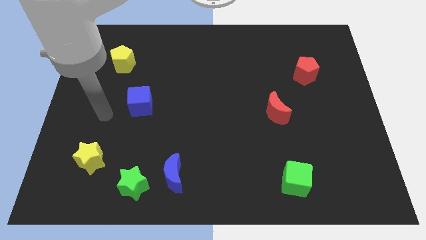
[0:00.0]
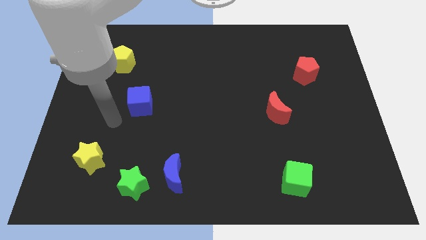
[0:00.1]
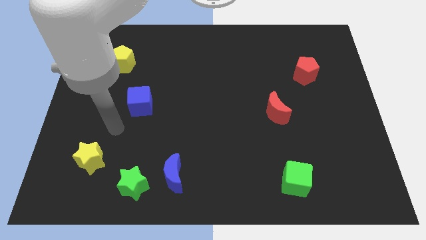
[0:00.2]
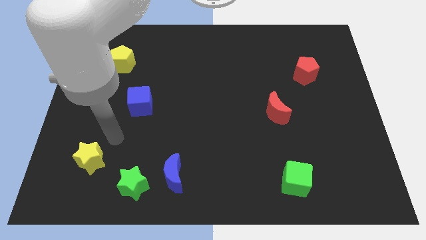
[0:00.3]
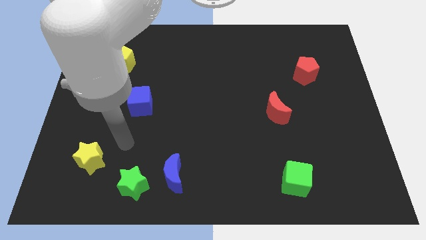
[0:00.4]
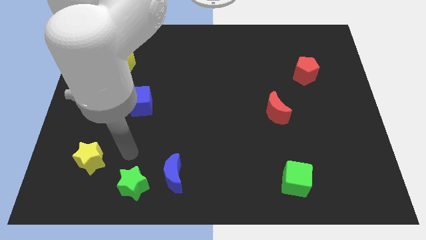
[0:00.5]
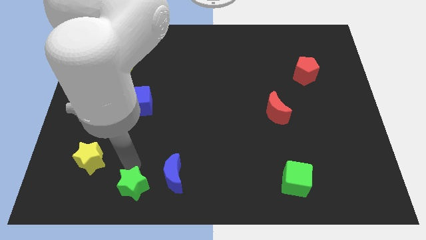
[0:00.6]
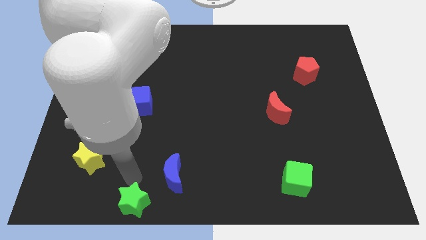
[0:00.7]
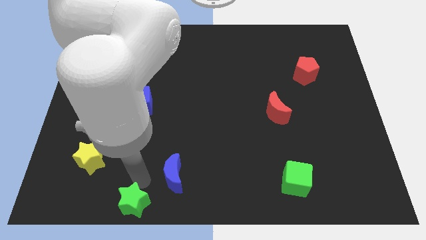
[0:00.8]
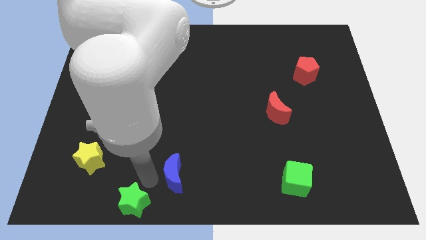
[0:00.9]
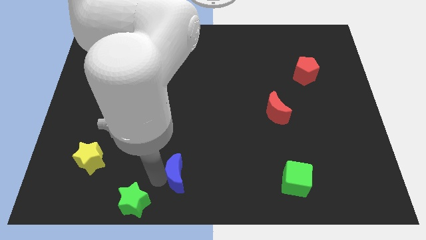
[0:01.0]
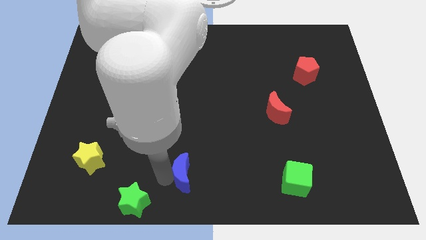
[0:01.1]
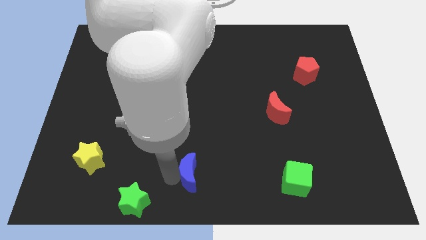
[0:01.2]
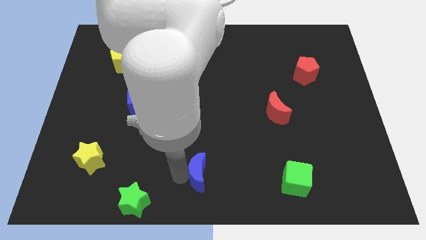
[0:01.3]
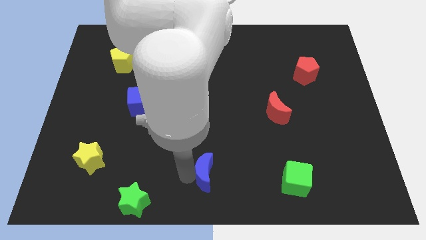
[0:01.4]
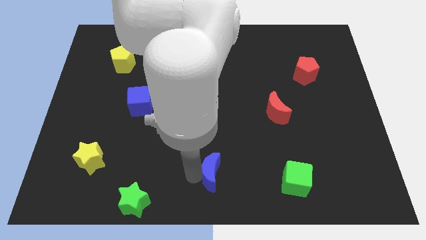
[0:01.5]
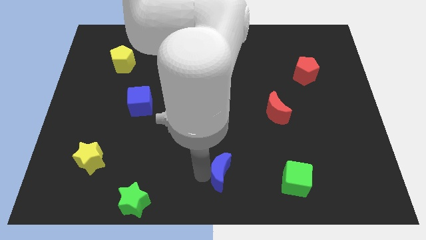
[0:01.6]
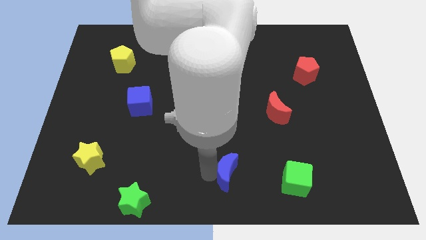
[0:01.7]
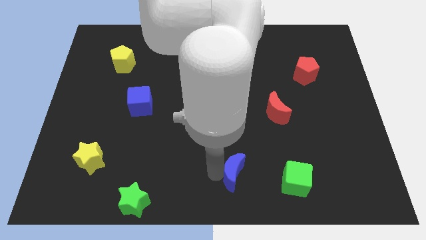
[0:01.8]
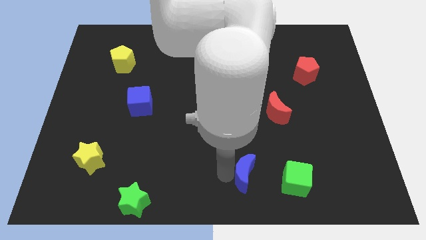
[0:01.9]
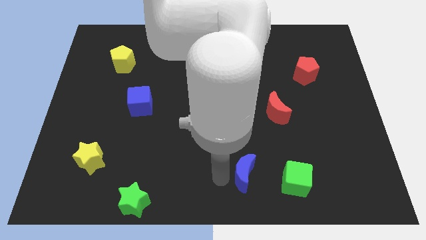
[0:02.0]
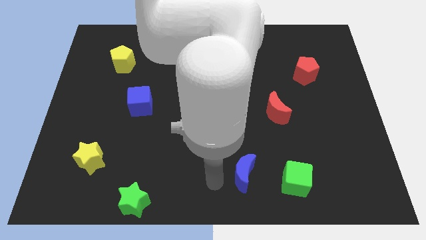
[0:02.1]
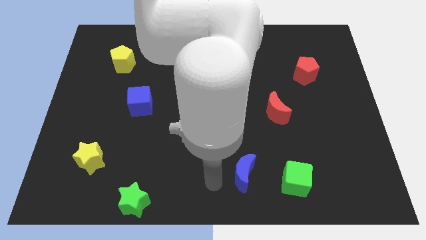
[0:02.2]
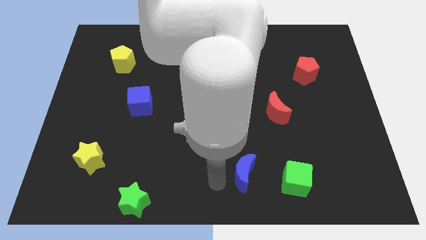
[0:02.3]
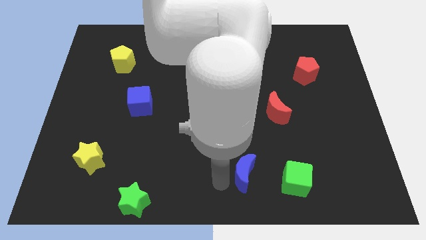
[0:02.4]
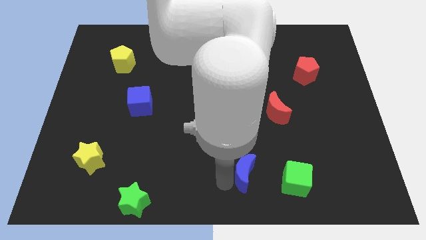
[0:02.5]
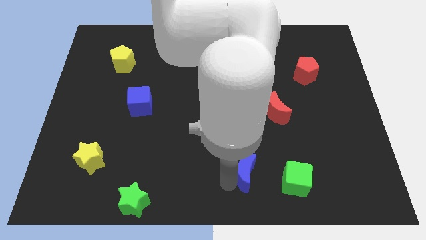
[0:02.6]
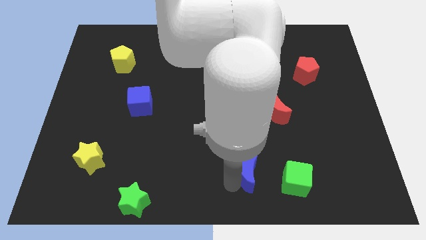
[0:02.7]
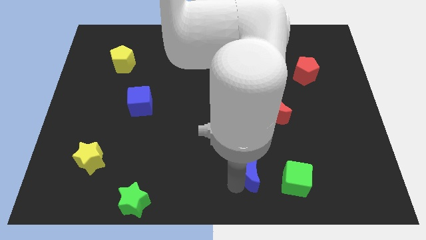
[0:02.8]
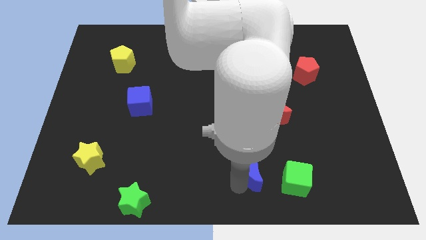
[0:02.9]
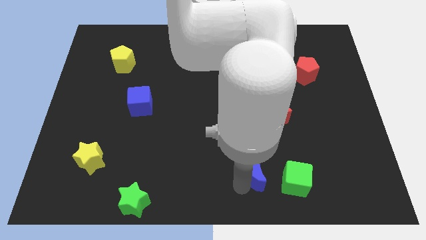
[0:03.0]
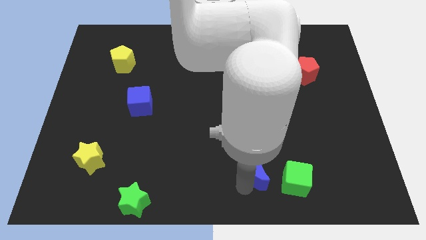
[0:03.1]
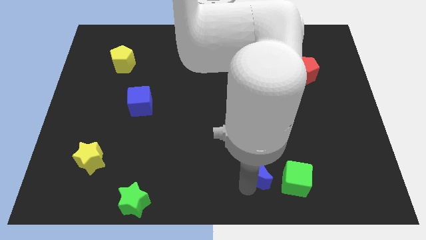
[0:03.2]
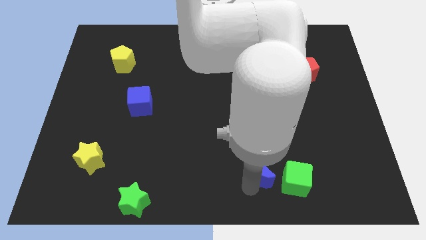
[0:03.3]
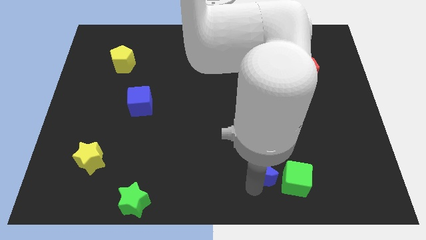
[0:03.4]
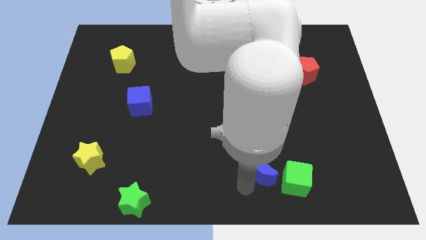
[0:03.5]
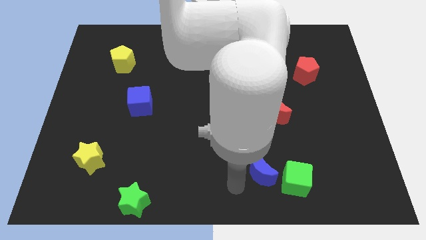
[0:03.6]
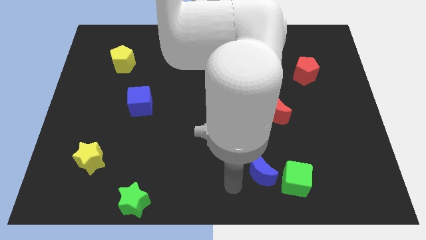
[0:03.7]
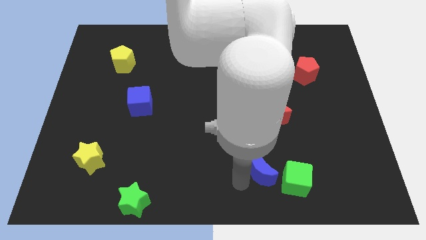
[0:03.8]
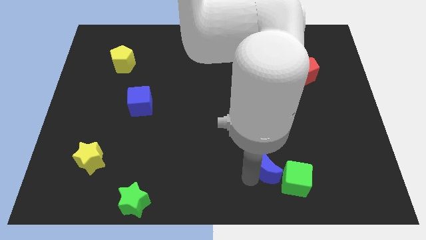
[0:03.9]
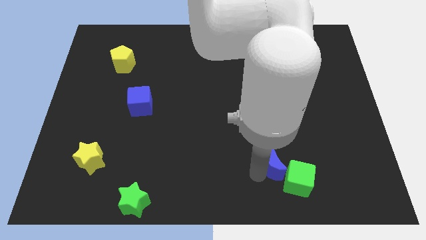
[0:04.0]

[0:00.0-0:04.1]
push the blue moon to the right

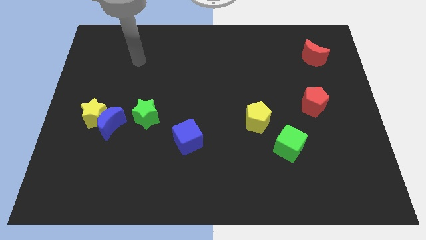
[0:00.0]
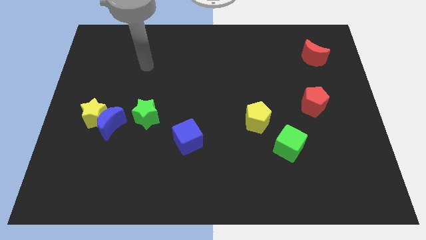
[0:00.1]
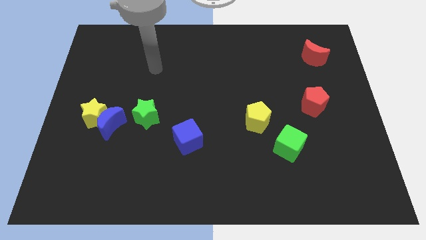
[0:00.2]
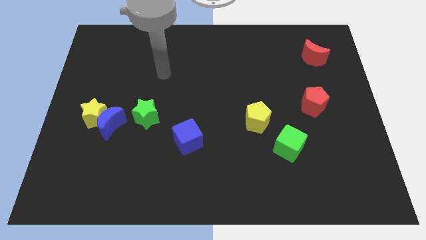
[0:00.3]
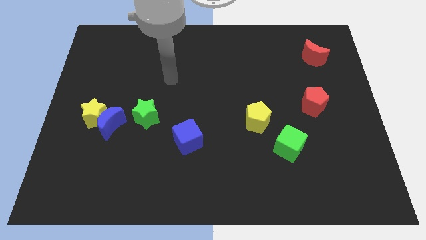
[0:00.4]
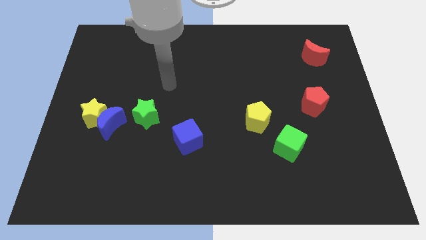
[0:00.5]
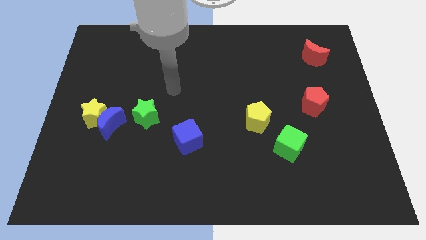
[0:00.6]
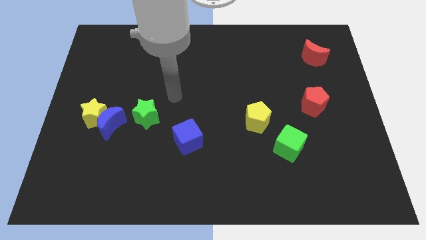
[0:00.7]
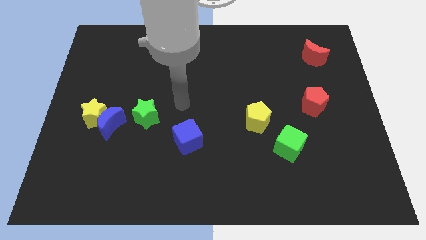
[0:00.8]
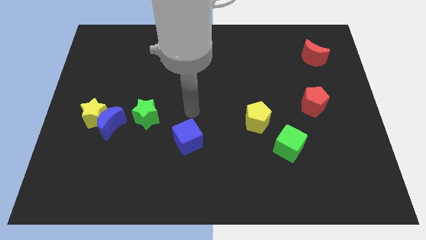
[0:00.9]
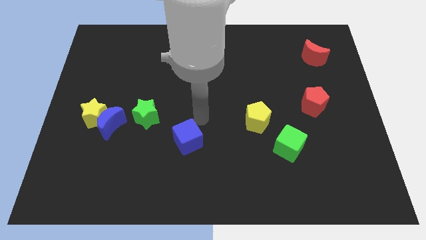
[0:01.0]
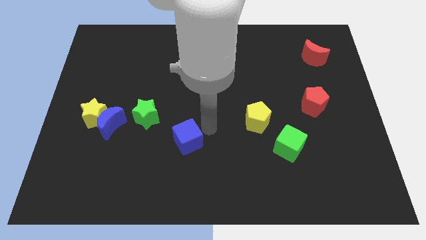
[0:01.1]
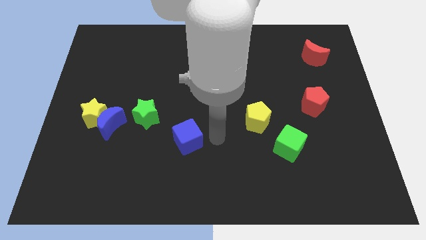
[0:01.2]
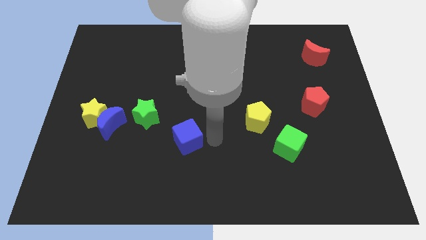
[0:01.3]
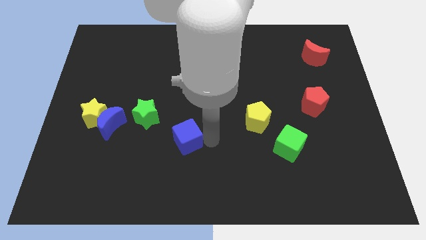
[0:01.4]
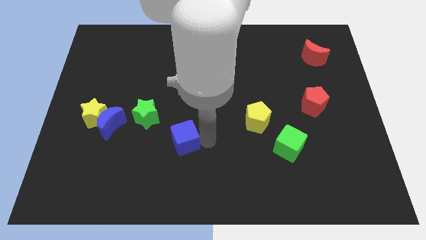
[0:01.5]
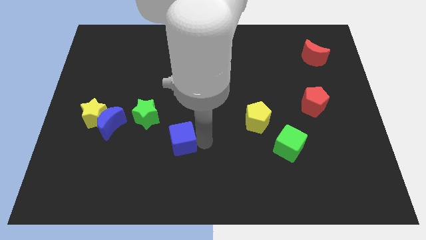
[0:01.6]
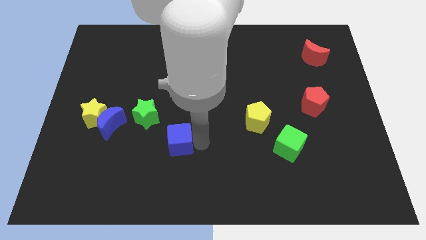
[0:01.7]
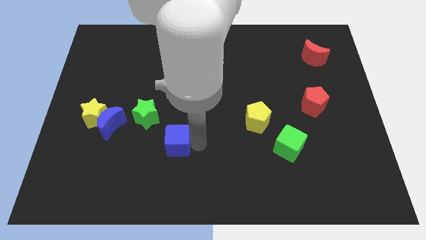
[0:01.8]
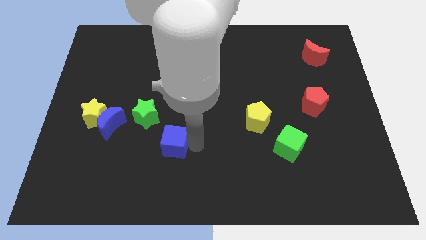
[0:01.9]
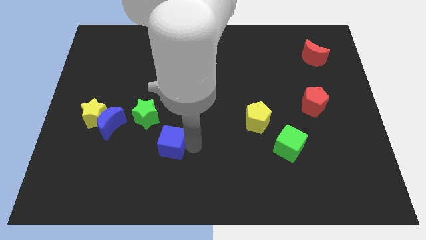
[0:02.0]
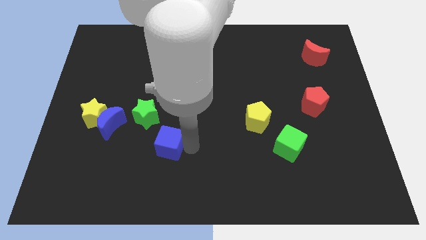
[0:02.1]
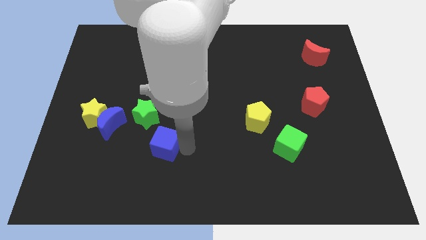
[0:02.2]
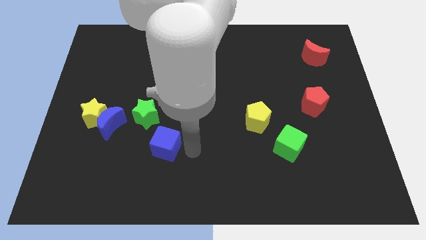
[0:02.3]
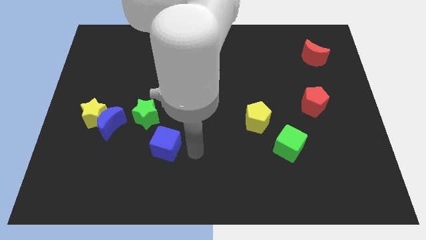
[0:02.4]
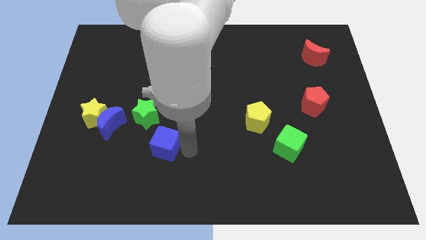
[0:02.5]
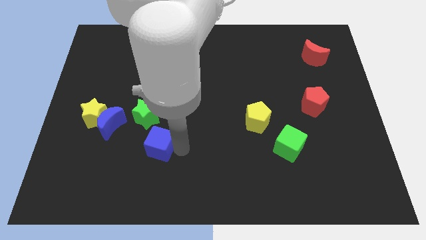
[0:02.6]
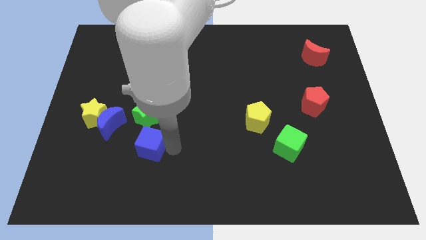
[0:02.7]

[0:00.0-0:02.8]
slide the blue cube a little bit left

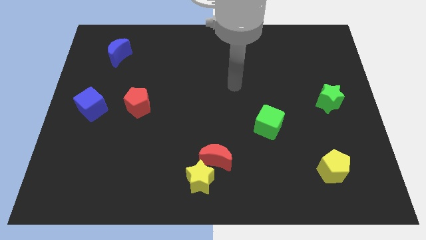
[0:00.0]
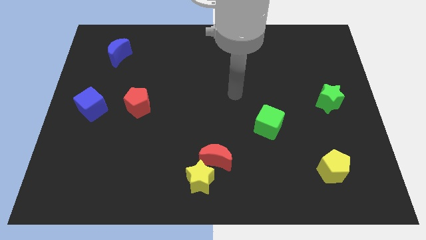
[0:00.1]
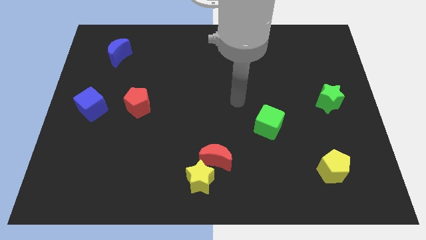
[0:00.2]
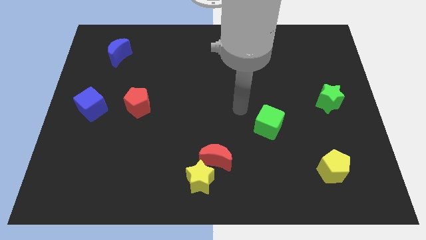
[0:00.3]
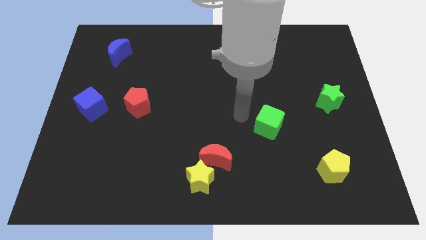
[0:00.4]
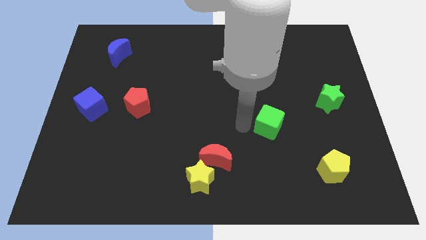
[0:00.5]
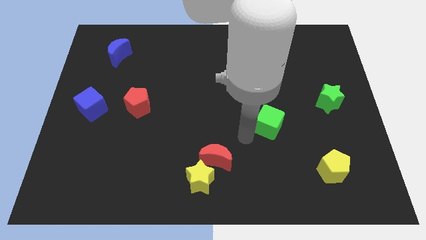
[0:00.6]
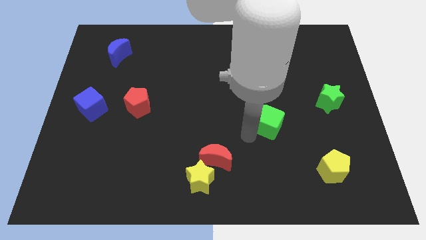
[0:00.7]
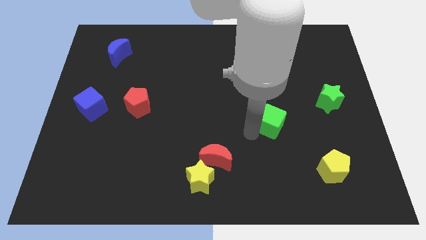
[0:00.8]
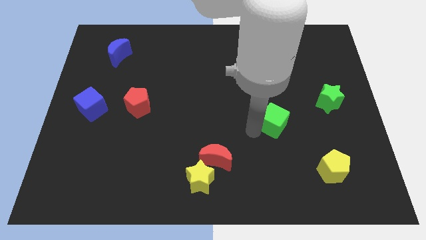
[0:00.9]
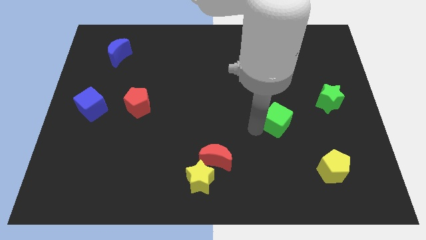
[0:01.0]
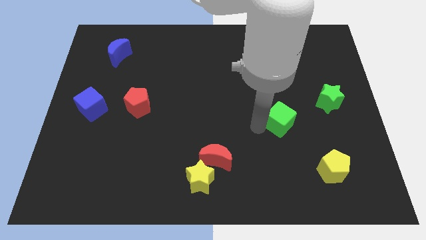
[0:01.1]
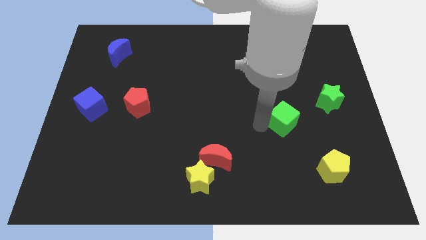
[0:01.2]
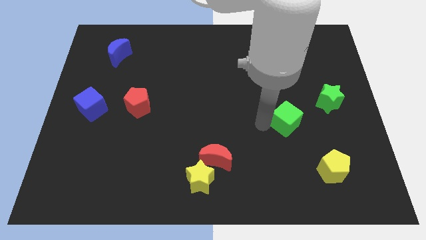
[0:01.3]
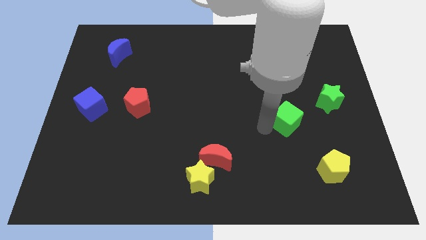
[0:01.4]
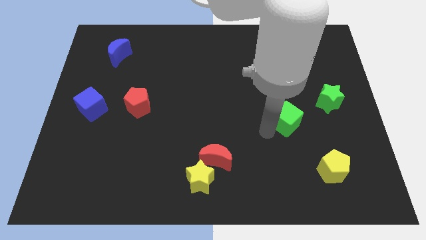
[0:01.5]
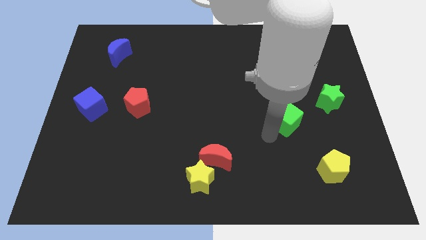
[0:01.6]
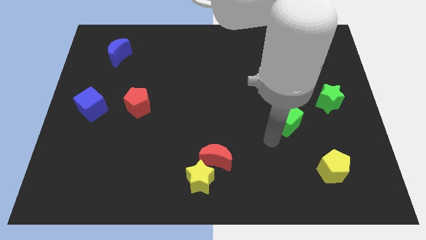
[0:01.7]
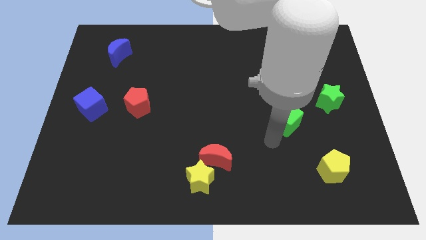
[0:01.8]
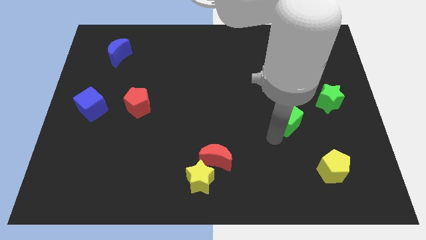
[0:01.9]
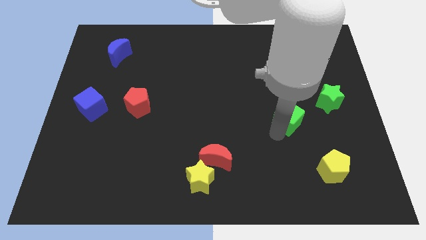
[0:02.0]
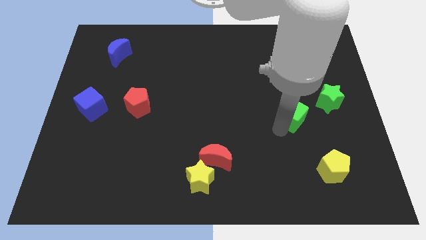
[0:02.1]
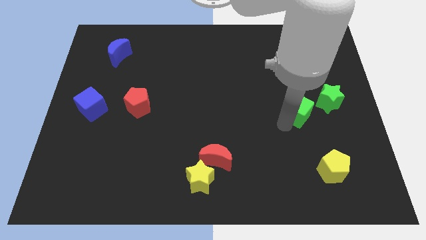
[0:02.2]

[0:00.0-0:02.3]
move the green cube upwards and right diagonally a bit
